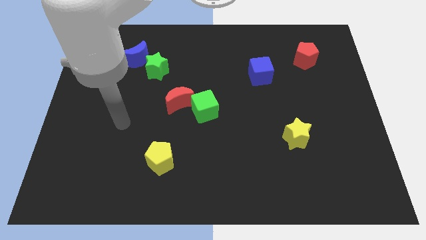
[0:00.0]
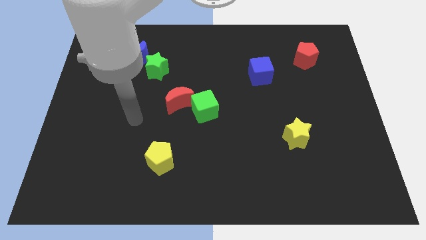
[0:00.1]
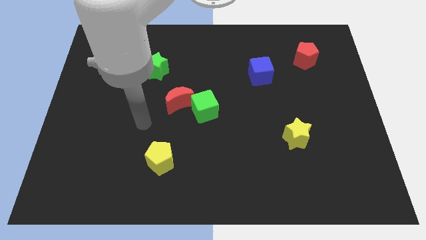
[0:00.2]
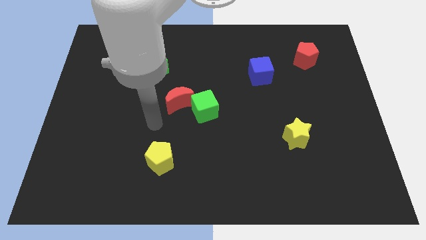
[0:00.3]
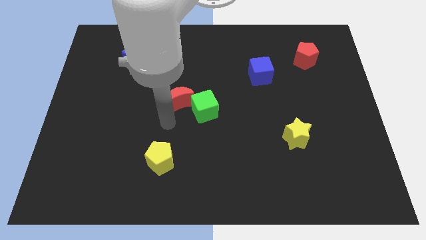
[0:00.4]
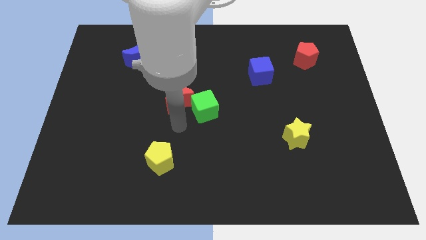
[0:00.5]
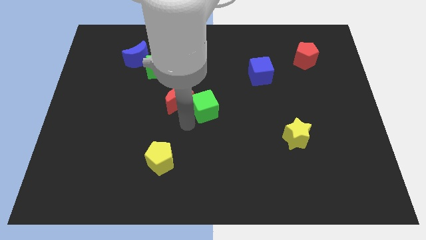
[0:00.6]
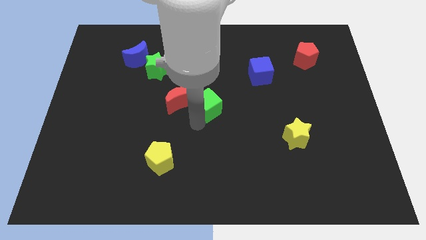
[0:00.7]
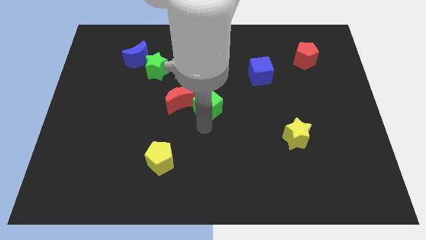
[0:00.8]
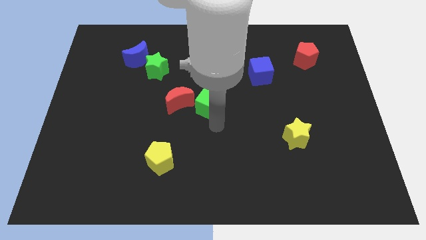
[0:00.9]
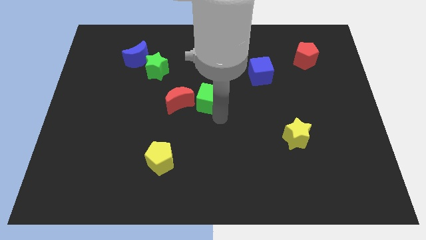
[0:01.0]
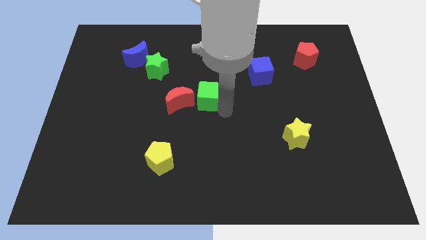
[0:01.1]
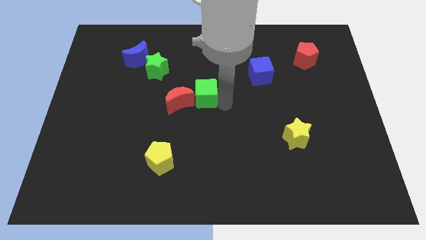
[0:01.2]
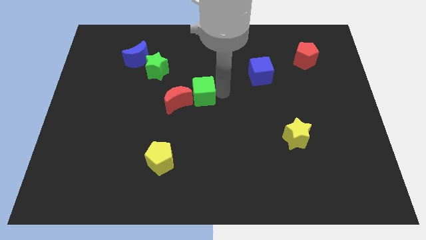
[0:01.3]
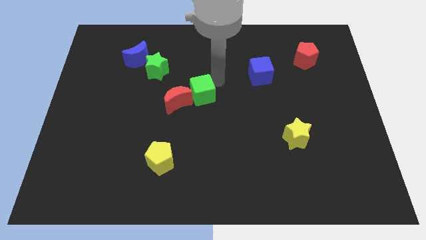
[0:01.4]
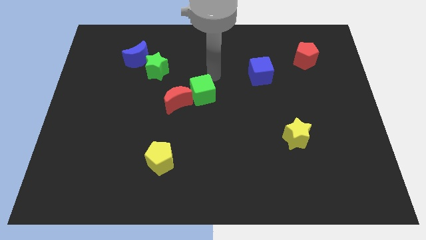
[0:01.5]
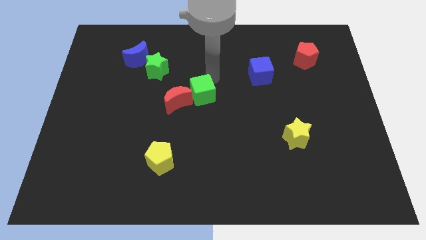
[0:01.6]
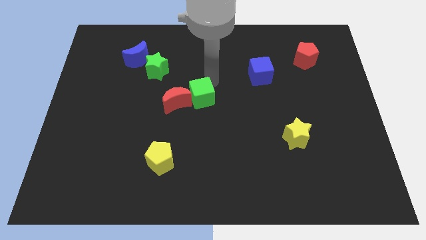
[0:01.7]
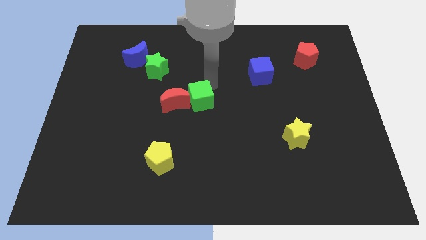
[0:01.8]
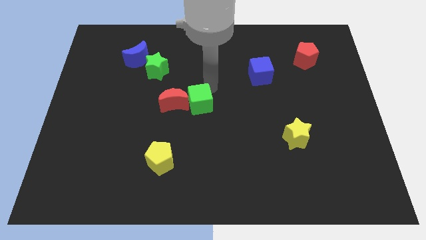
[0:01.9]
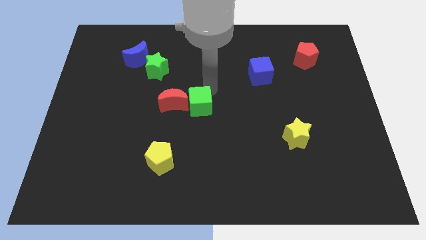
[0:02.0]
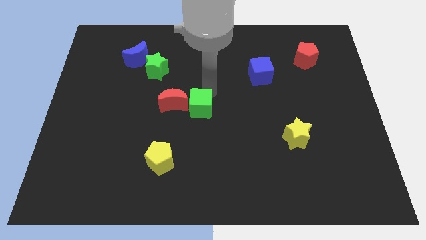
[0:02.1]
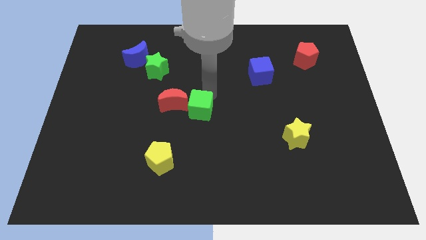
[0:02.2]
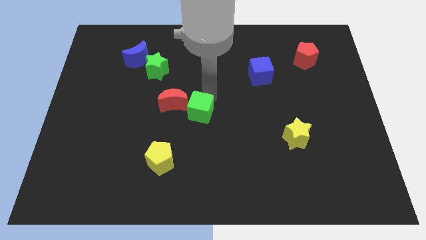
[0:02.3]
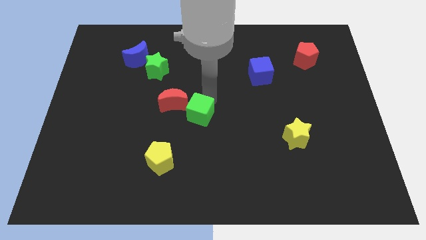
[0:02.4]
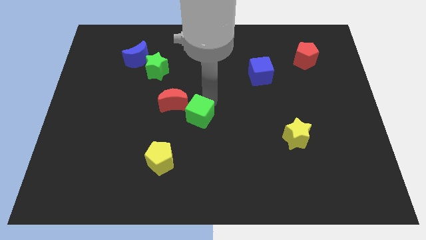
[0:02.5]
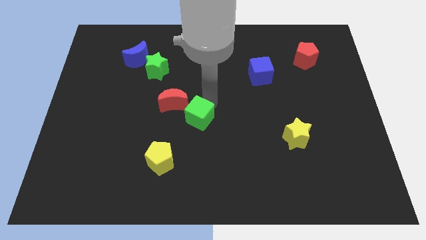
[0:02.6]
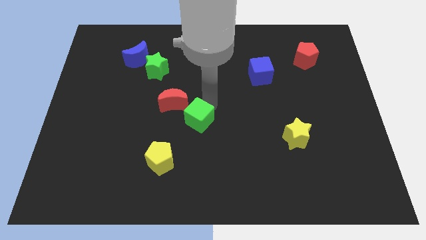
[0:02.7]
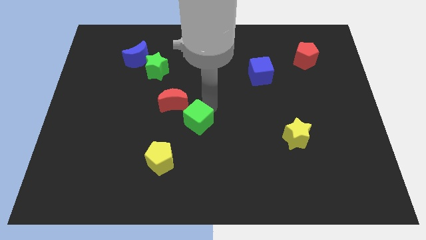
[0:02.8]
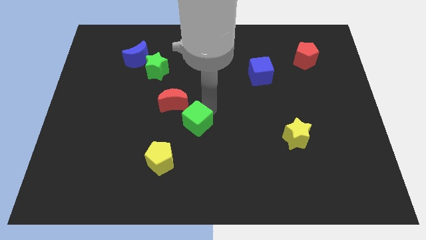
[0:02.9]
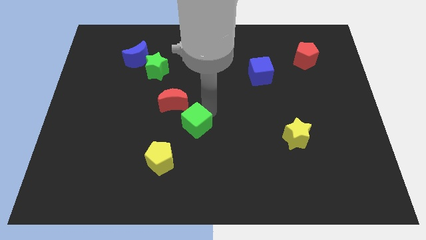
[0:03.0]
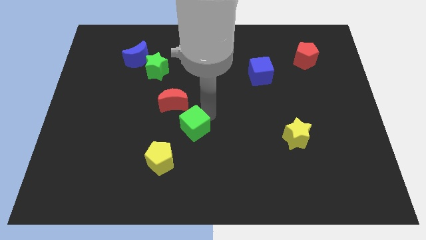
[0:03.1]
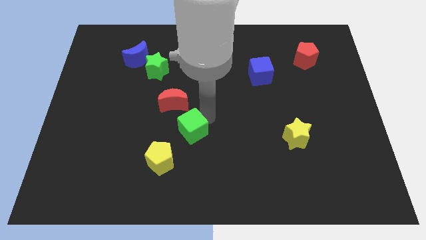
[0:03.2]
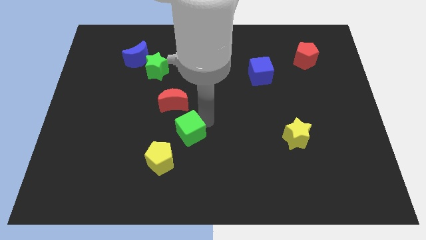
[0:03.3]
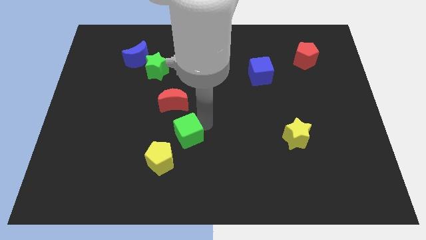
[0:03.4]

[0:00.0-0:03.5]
slide the green cube diagonally downwards and left somewhat

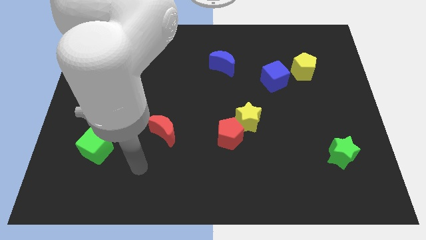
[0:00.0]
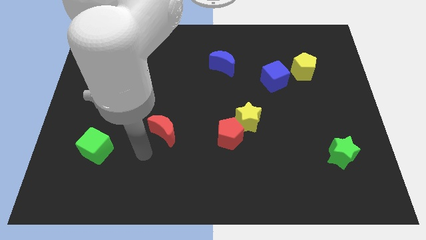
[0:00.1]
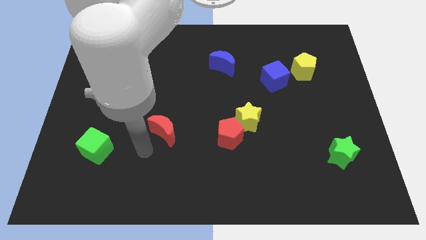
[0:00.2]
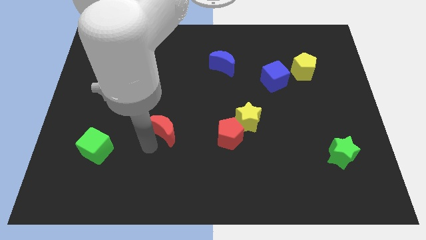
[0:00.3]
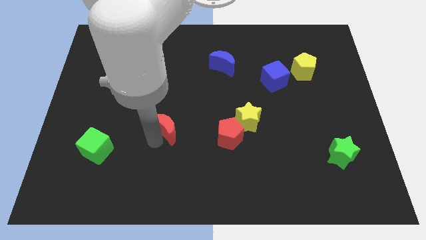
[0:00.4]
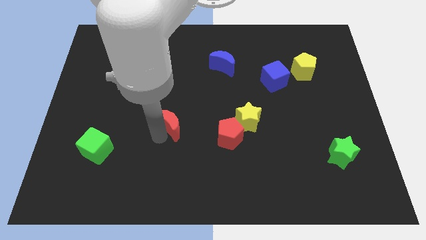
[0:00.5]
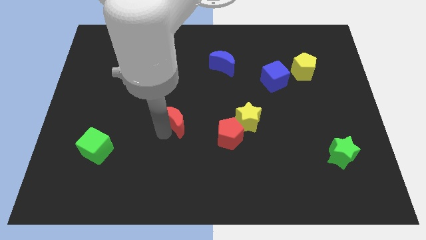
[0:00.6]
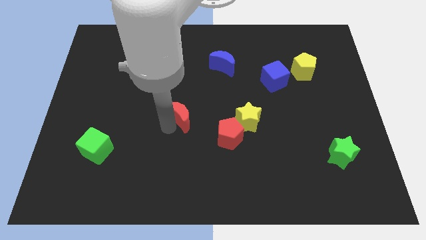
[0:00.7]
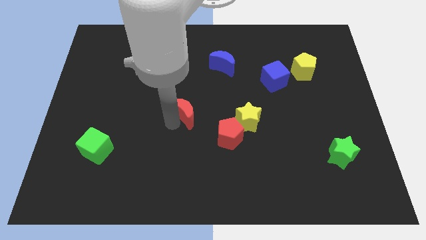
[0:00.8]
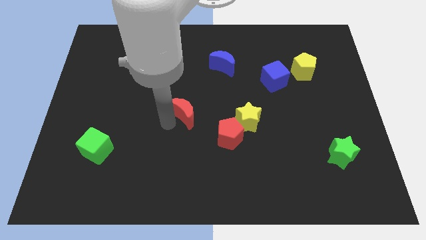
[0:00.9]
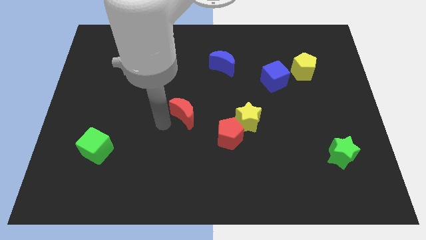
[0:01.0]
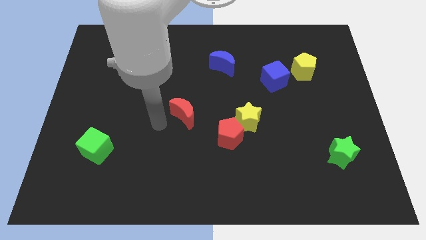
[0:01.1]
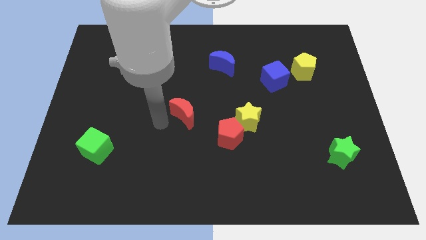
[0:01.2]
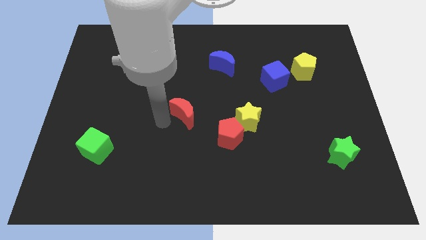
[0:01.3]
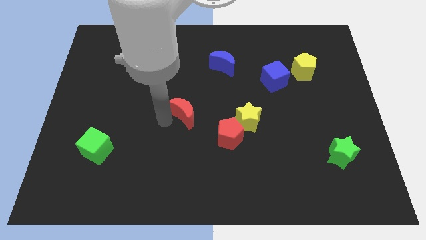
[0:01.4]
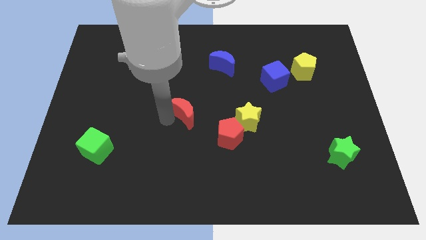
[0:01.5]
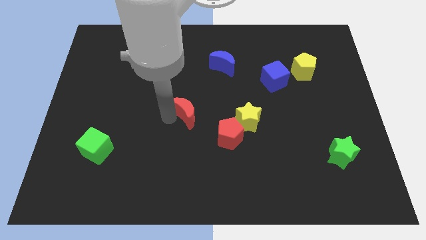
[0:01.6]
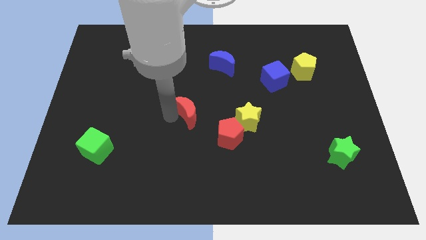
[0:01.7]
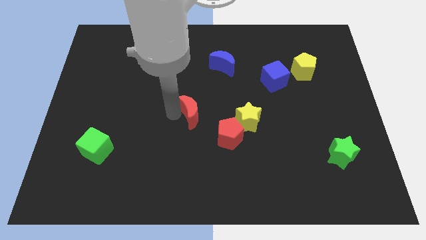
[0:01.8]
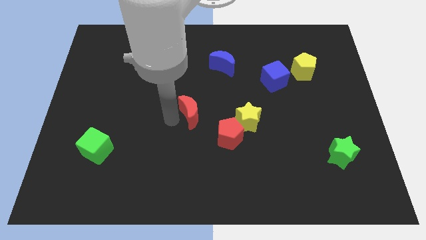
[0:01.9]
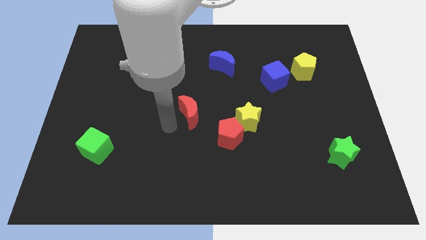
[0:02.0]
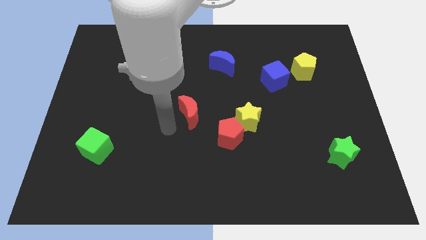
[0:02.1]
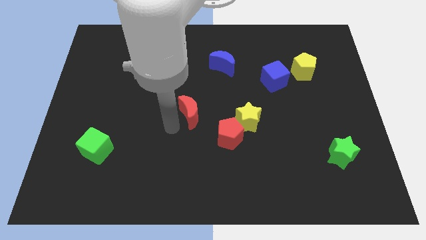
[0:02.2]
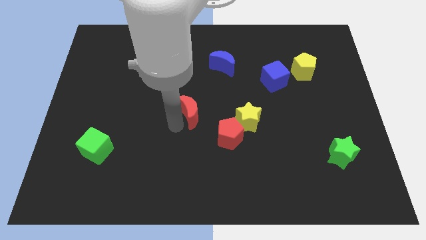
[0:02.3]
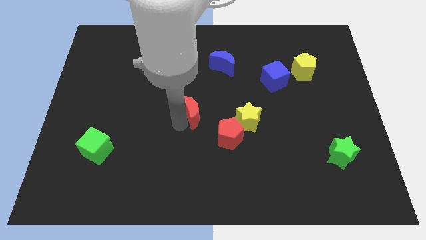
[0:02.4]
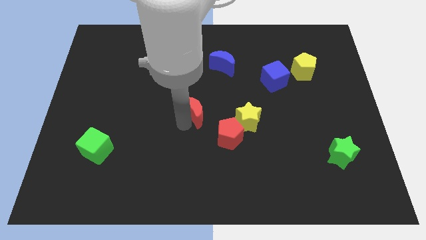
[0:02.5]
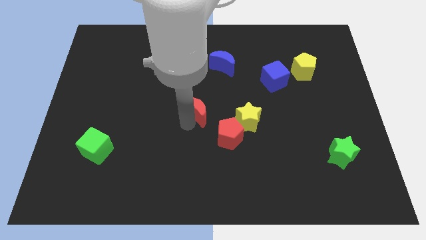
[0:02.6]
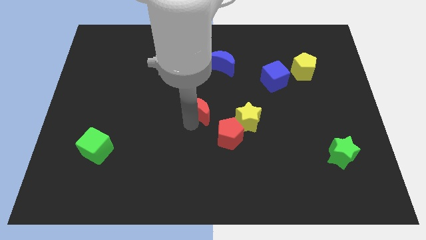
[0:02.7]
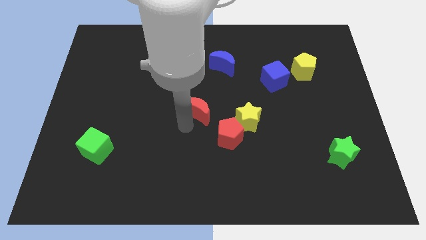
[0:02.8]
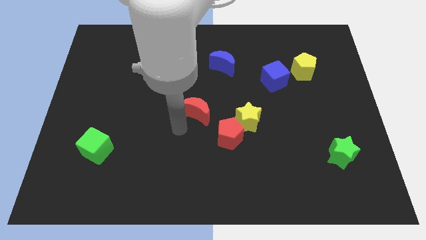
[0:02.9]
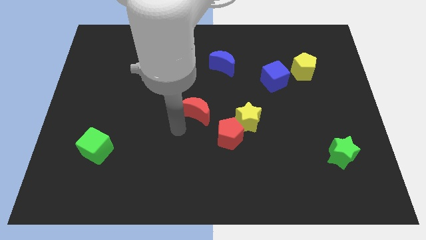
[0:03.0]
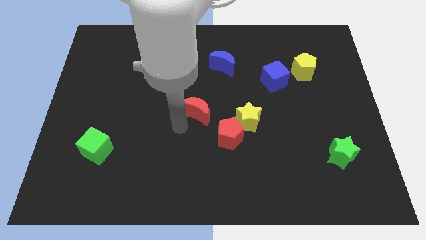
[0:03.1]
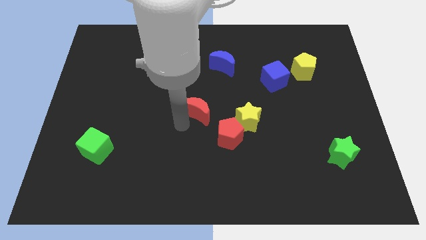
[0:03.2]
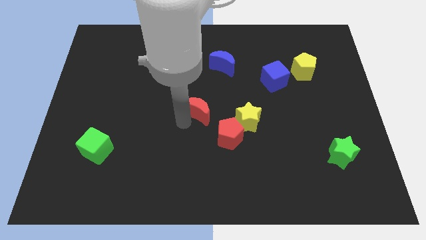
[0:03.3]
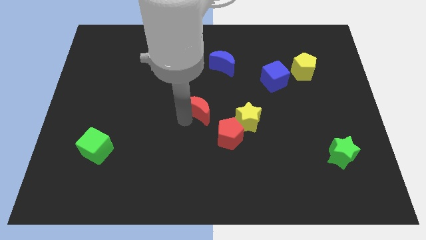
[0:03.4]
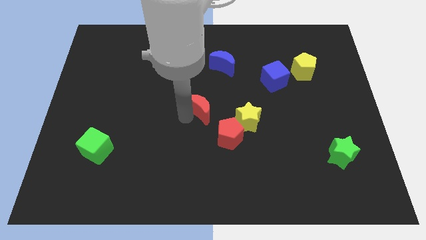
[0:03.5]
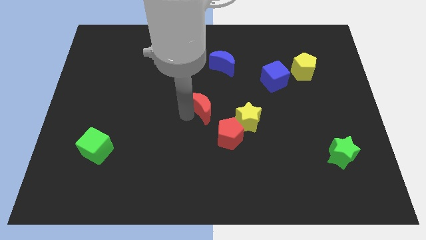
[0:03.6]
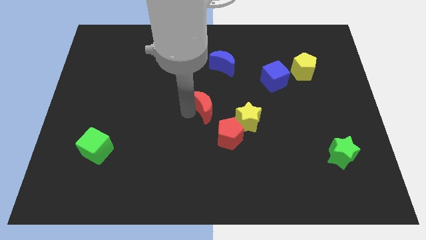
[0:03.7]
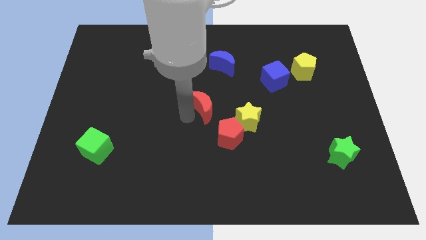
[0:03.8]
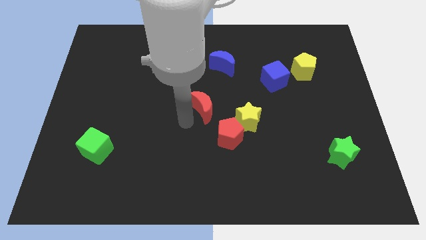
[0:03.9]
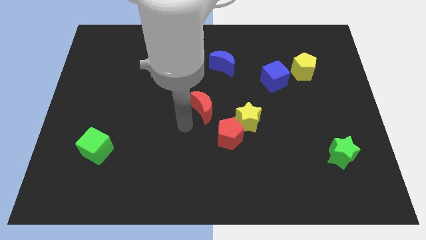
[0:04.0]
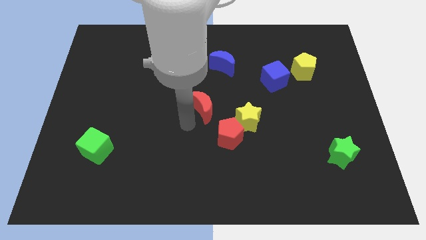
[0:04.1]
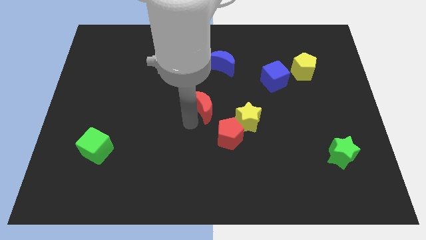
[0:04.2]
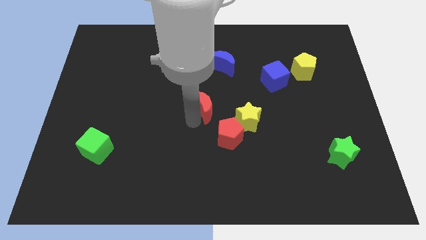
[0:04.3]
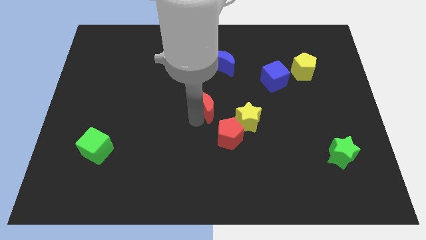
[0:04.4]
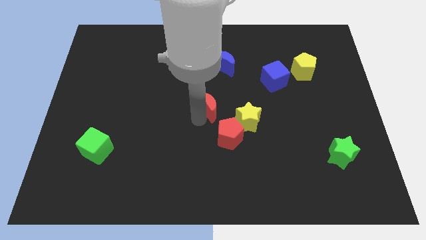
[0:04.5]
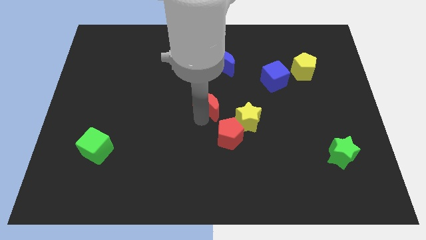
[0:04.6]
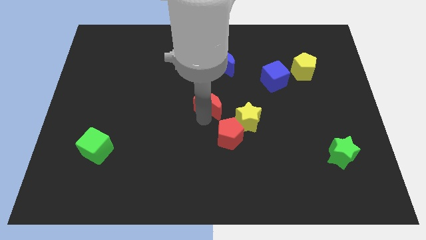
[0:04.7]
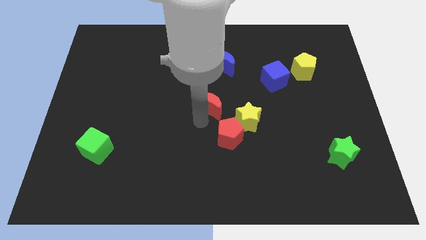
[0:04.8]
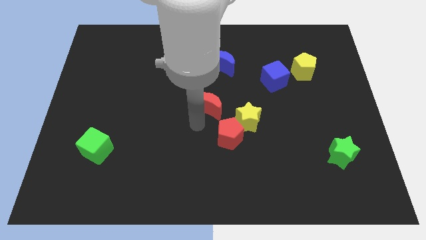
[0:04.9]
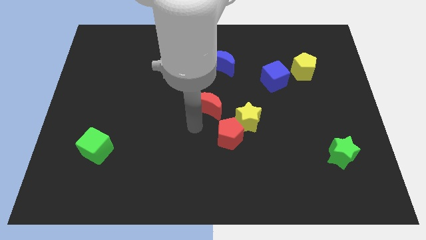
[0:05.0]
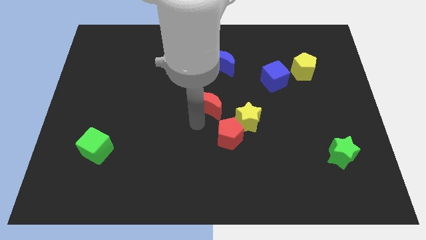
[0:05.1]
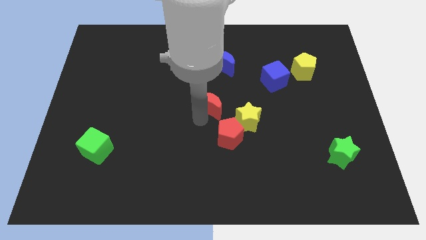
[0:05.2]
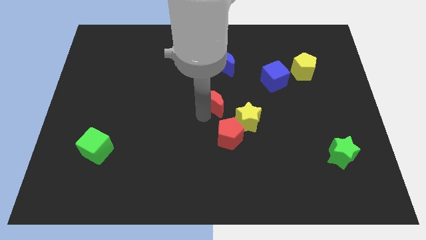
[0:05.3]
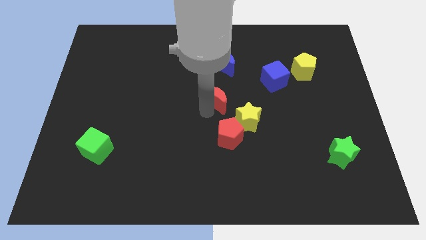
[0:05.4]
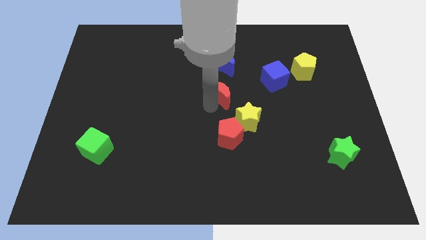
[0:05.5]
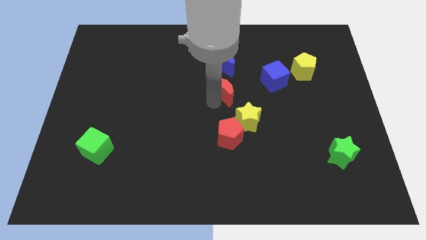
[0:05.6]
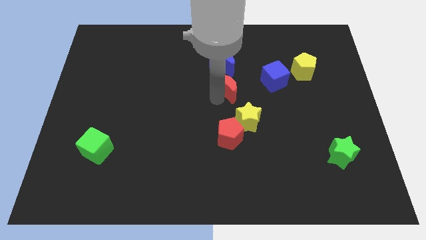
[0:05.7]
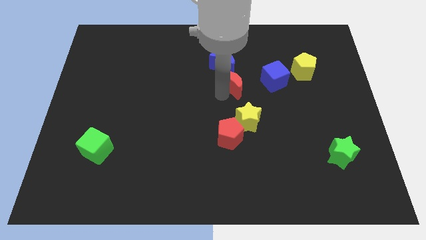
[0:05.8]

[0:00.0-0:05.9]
slide the red moon up and to the right
